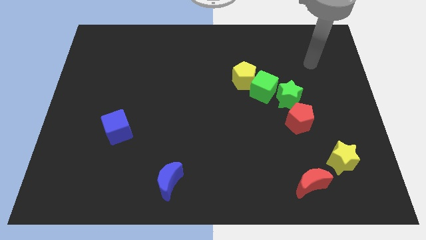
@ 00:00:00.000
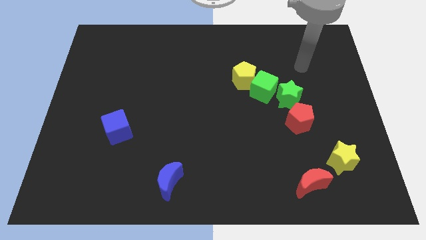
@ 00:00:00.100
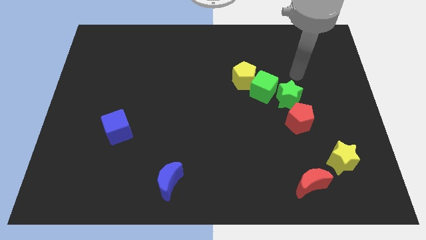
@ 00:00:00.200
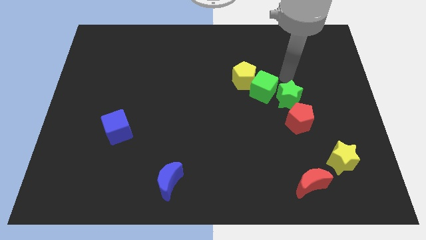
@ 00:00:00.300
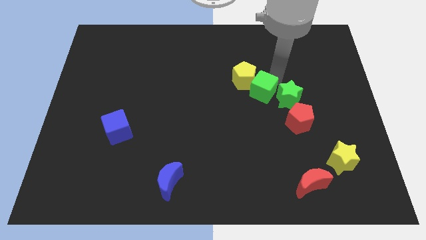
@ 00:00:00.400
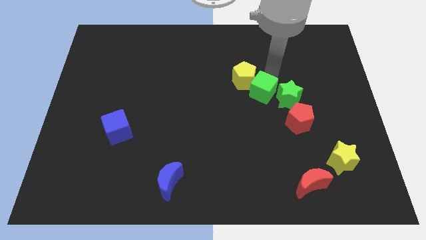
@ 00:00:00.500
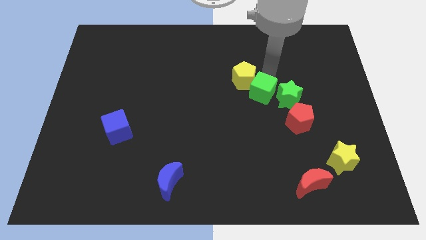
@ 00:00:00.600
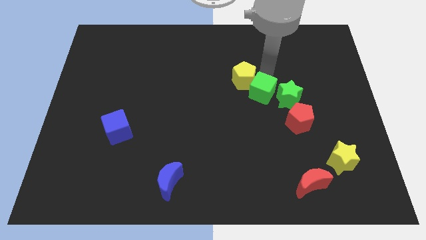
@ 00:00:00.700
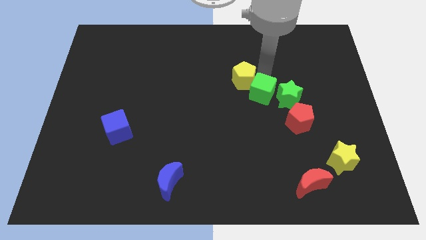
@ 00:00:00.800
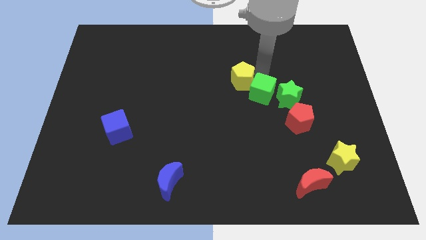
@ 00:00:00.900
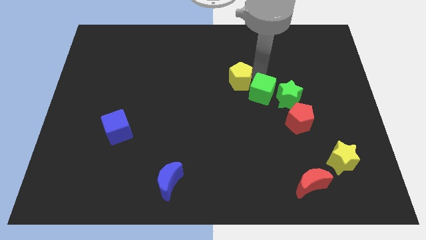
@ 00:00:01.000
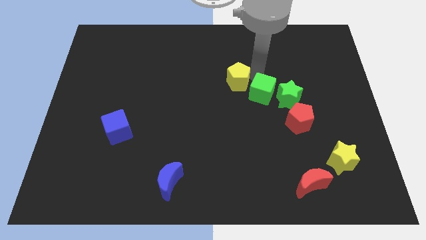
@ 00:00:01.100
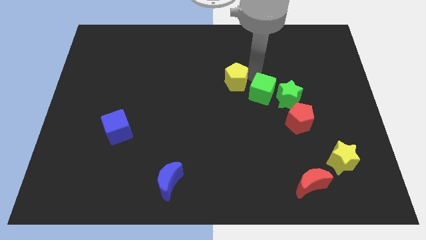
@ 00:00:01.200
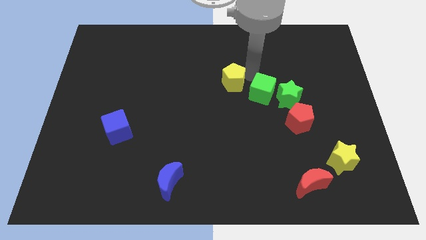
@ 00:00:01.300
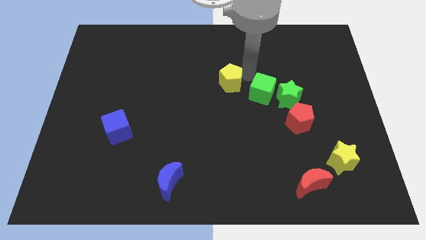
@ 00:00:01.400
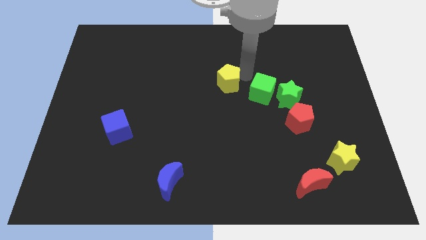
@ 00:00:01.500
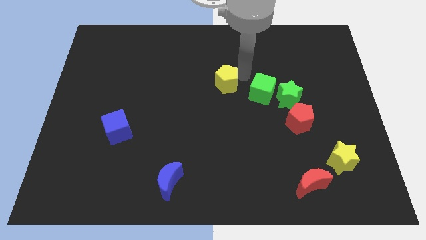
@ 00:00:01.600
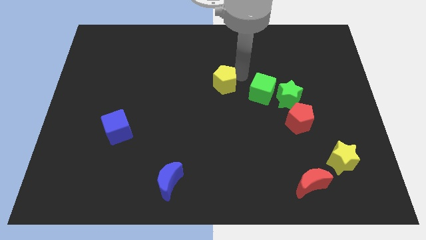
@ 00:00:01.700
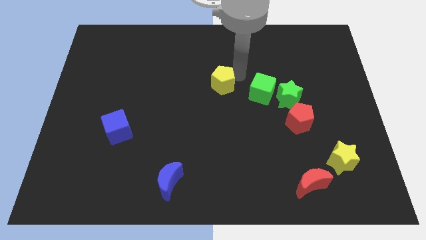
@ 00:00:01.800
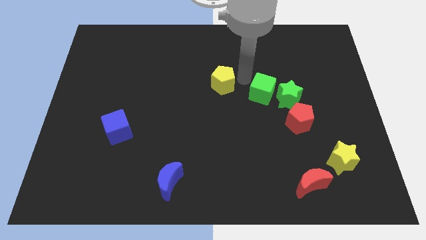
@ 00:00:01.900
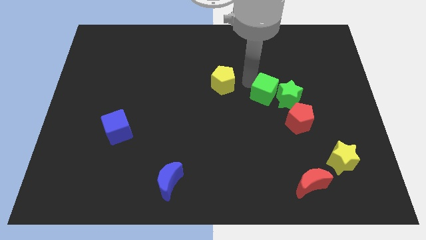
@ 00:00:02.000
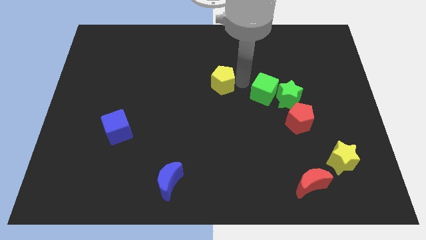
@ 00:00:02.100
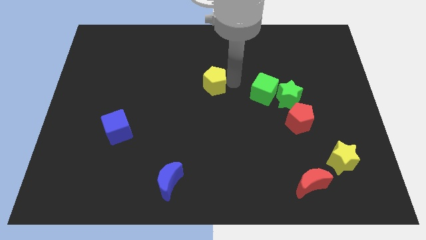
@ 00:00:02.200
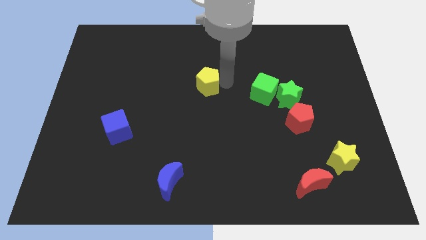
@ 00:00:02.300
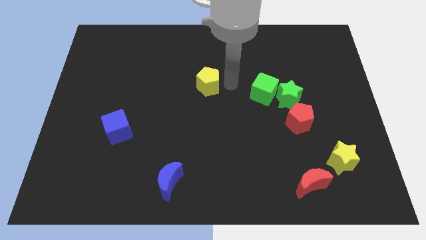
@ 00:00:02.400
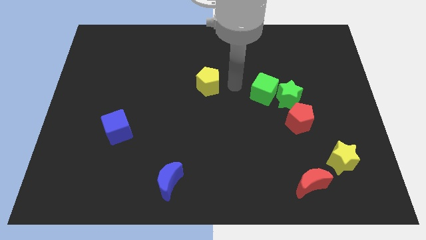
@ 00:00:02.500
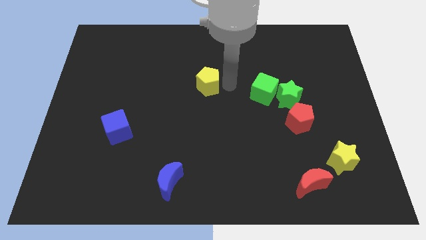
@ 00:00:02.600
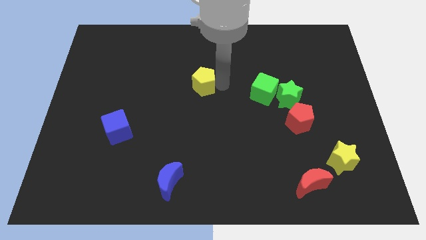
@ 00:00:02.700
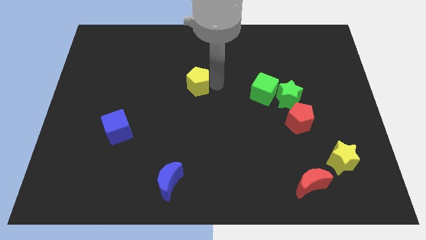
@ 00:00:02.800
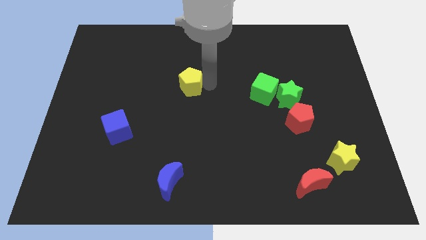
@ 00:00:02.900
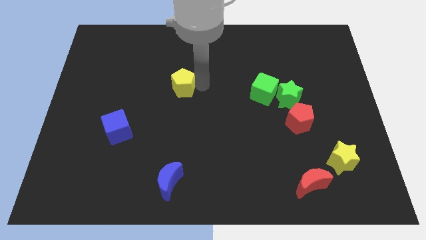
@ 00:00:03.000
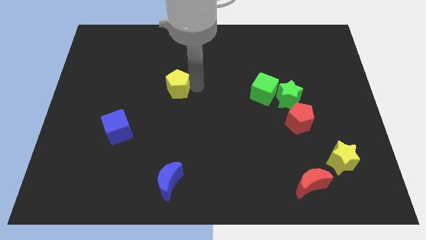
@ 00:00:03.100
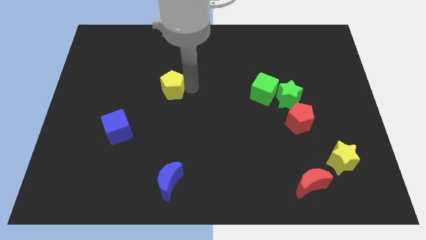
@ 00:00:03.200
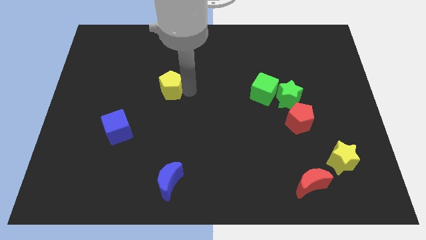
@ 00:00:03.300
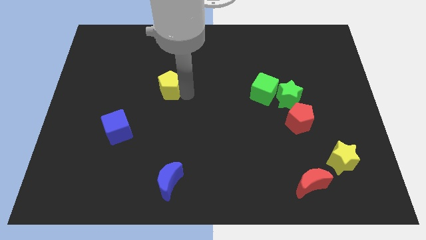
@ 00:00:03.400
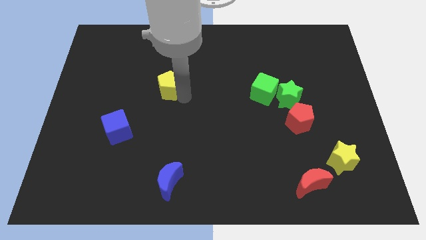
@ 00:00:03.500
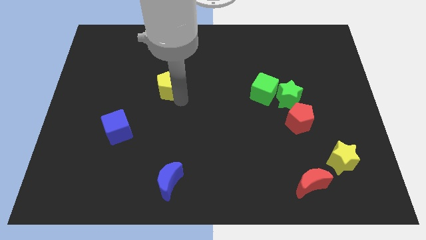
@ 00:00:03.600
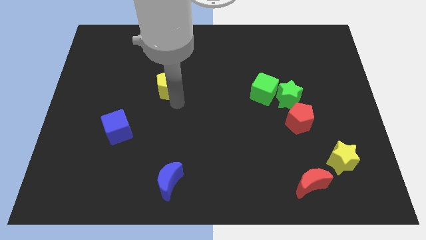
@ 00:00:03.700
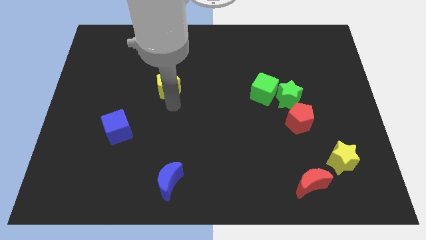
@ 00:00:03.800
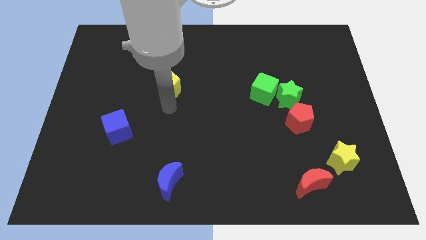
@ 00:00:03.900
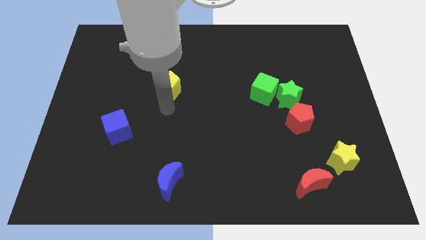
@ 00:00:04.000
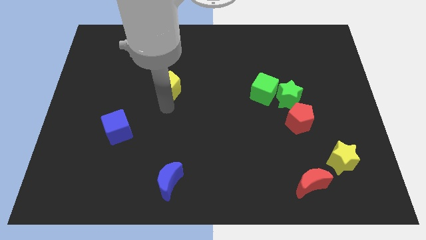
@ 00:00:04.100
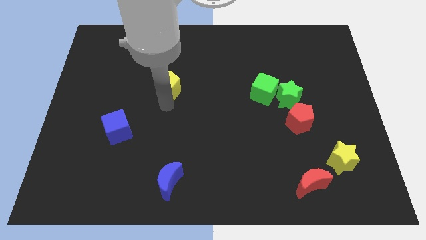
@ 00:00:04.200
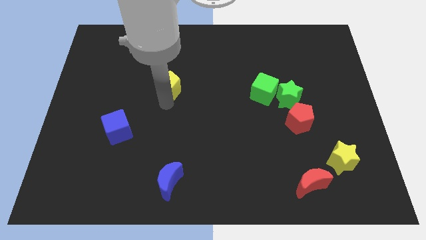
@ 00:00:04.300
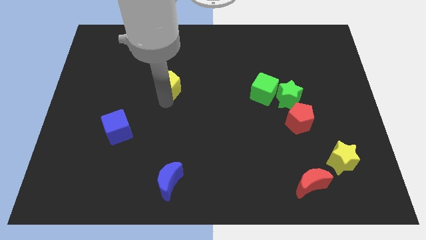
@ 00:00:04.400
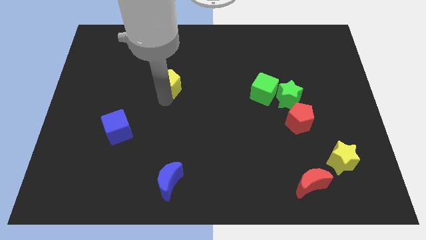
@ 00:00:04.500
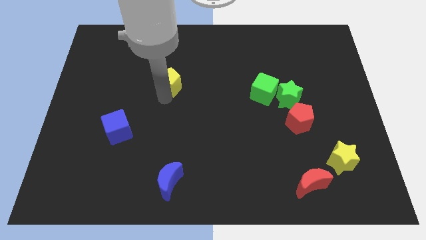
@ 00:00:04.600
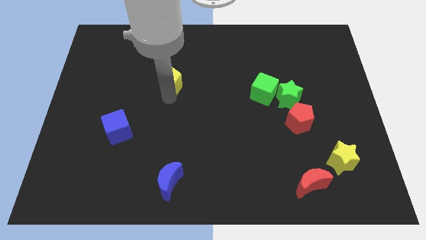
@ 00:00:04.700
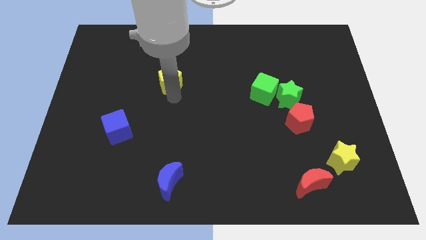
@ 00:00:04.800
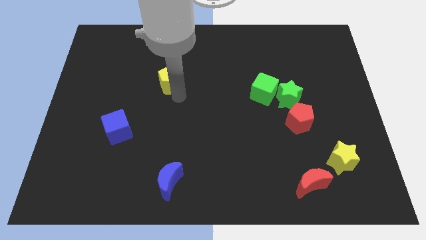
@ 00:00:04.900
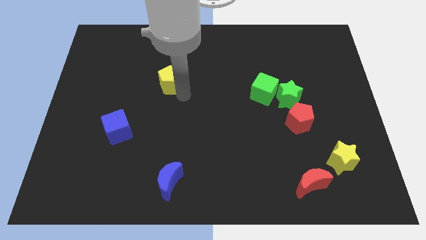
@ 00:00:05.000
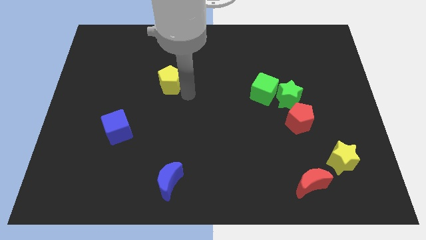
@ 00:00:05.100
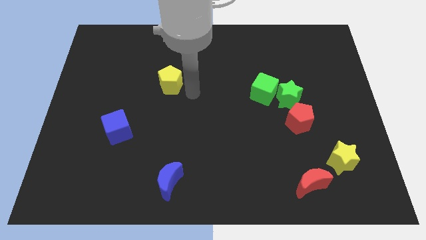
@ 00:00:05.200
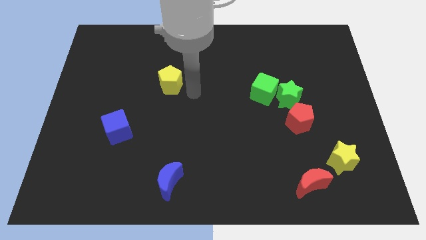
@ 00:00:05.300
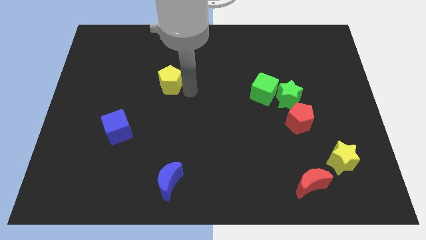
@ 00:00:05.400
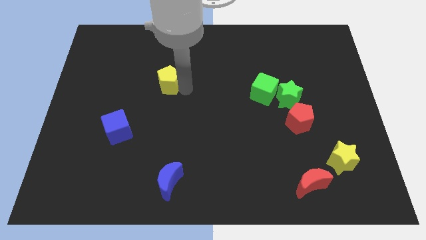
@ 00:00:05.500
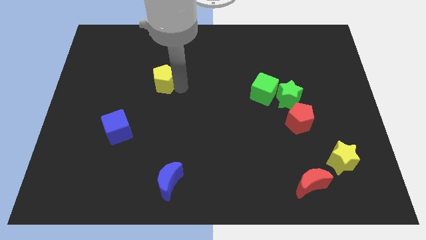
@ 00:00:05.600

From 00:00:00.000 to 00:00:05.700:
push the yellow pentagon to the left

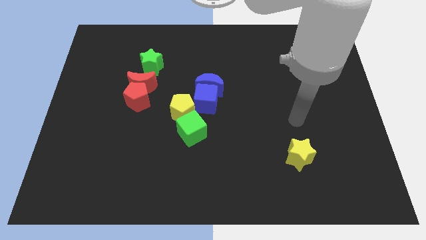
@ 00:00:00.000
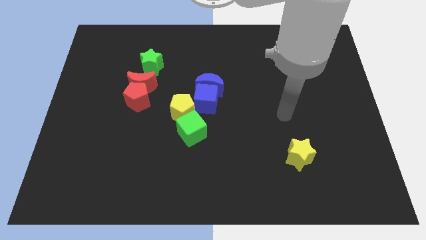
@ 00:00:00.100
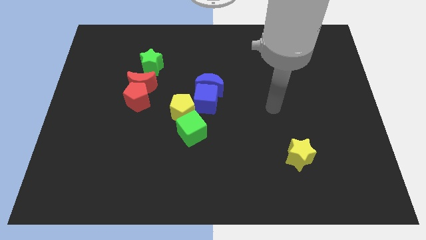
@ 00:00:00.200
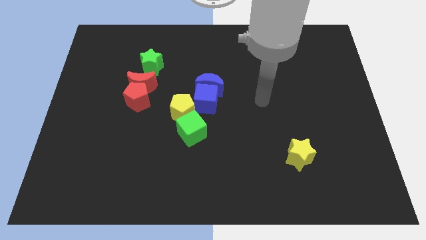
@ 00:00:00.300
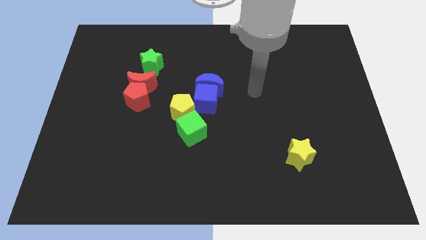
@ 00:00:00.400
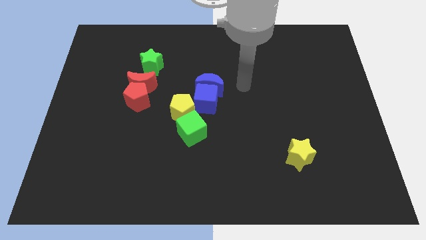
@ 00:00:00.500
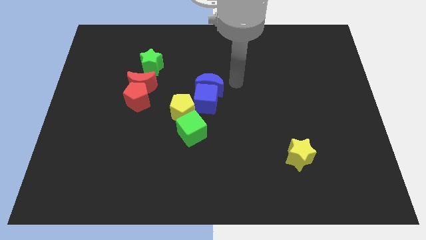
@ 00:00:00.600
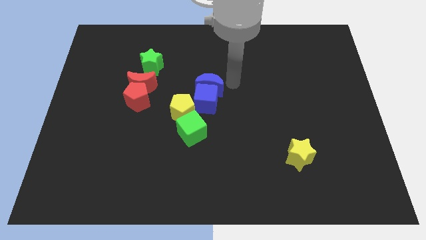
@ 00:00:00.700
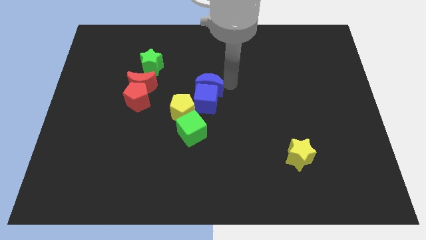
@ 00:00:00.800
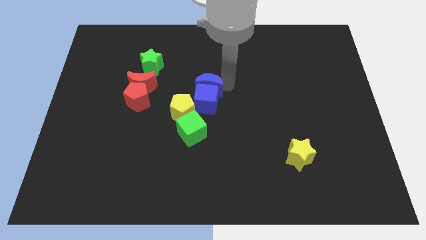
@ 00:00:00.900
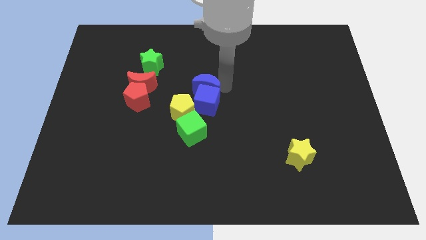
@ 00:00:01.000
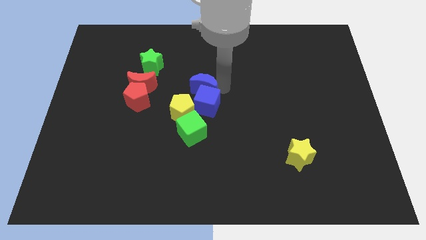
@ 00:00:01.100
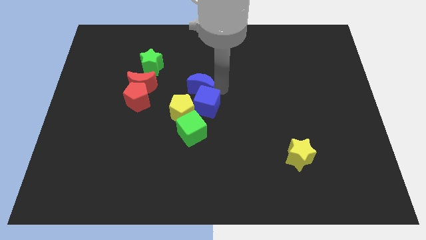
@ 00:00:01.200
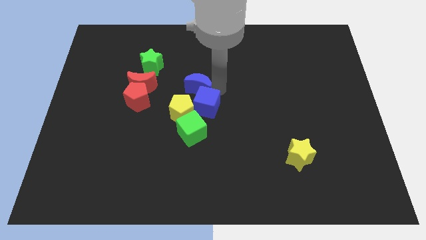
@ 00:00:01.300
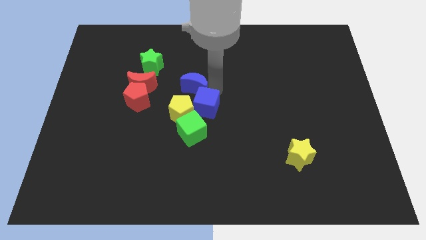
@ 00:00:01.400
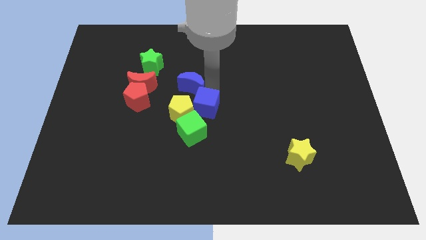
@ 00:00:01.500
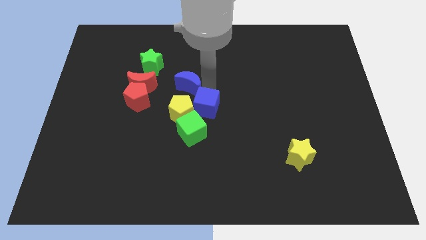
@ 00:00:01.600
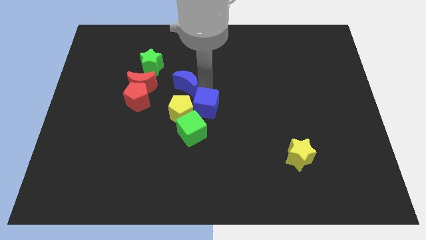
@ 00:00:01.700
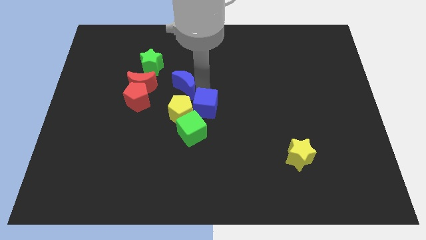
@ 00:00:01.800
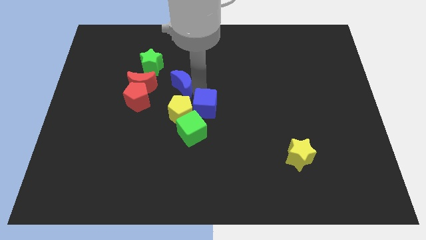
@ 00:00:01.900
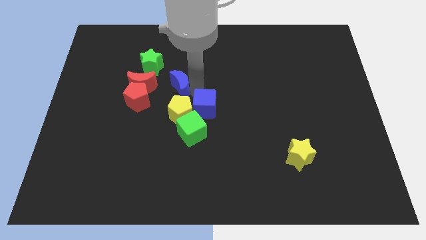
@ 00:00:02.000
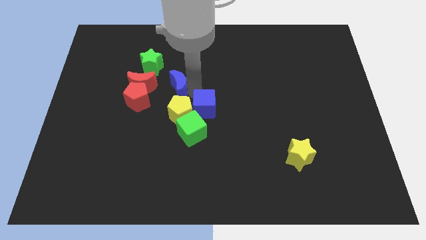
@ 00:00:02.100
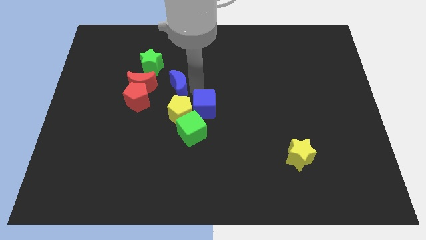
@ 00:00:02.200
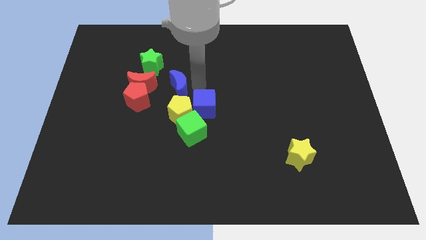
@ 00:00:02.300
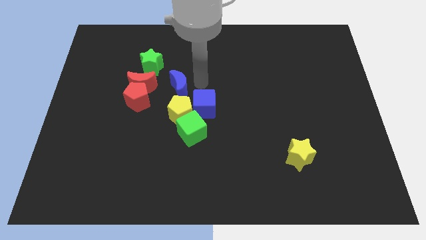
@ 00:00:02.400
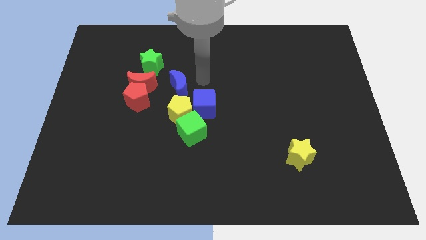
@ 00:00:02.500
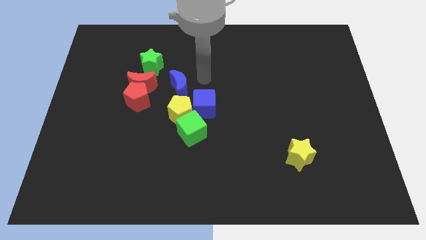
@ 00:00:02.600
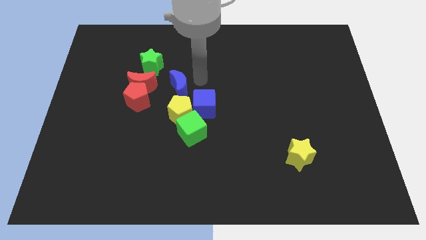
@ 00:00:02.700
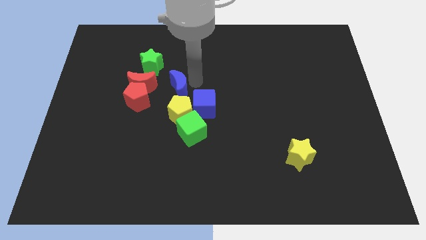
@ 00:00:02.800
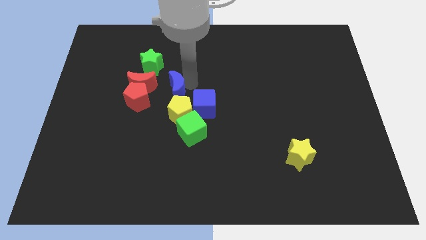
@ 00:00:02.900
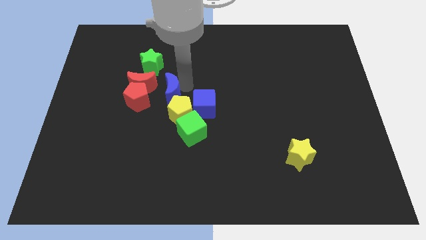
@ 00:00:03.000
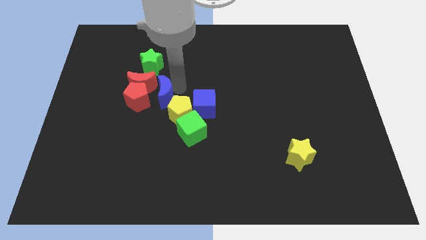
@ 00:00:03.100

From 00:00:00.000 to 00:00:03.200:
move the blue moon diagonally downwards and left somewhat
